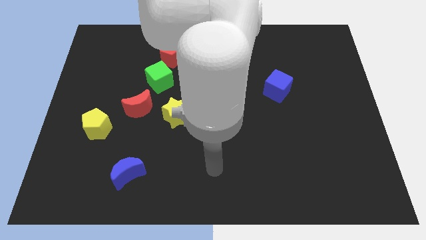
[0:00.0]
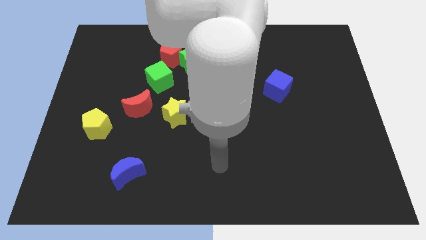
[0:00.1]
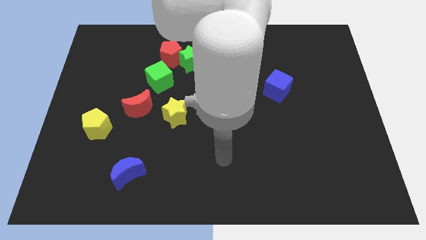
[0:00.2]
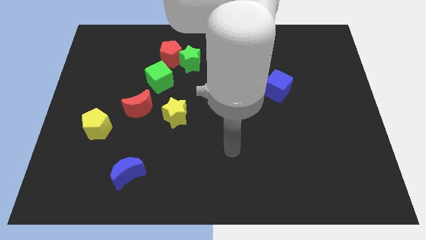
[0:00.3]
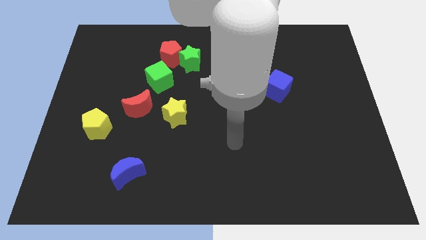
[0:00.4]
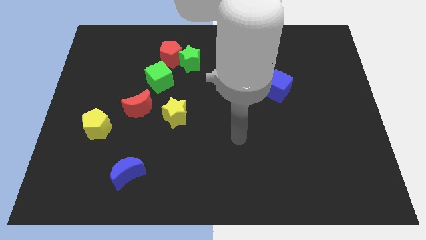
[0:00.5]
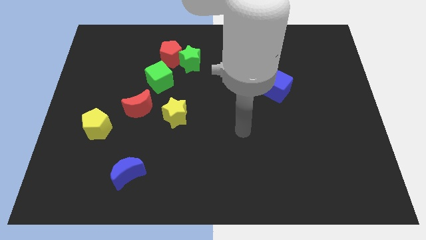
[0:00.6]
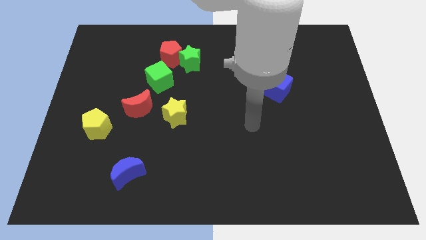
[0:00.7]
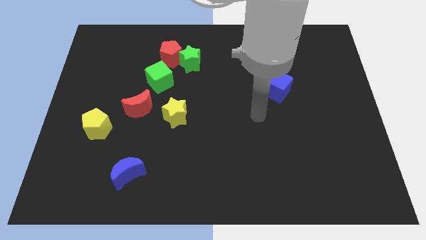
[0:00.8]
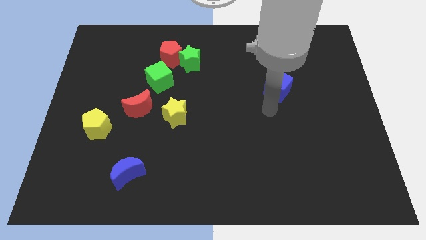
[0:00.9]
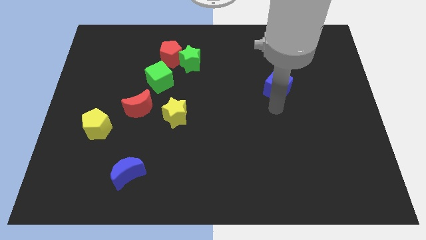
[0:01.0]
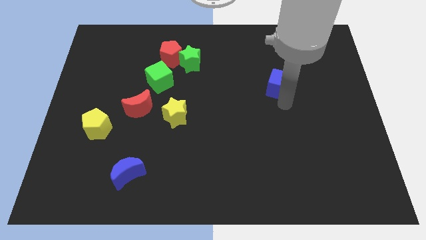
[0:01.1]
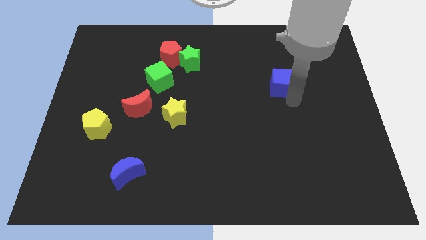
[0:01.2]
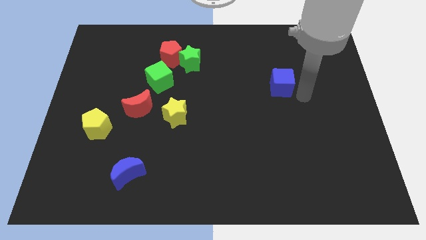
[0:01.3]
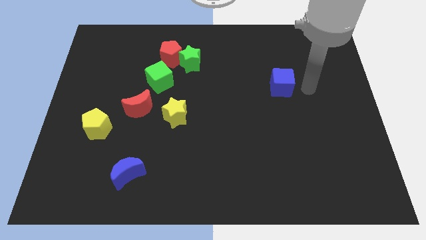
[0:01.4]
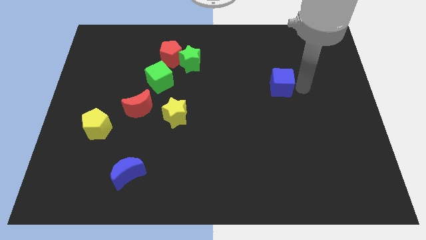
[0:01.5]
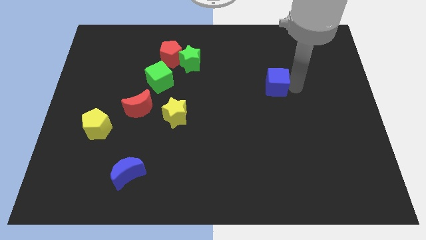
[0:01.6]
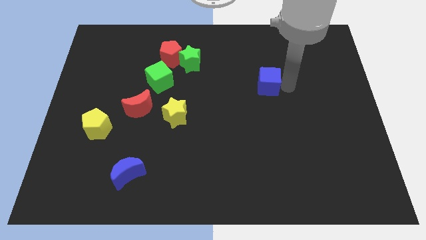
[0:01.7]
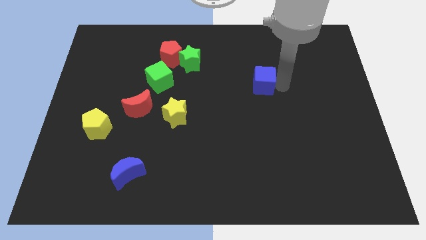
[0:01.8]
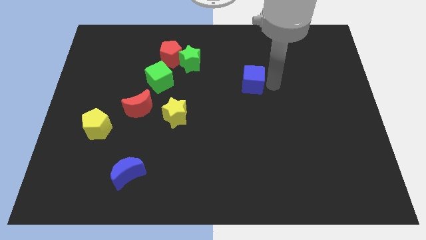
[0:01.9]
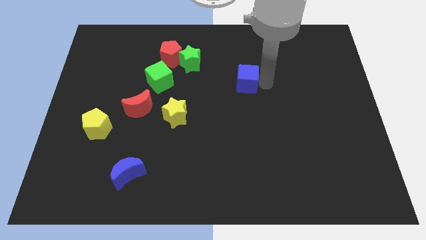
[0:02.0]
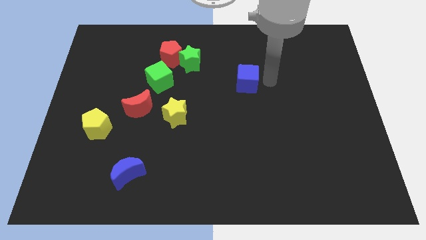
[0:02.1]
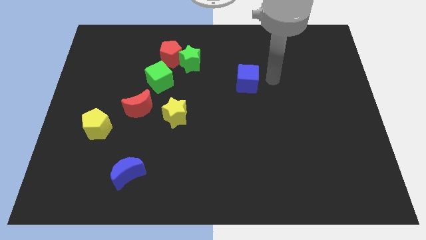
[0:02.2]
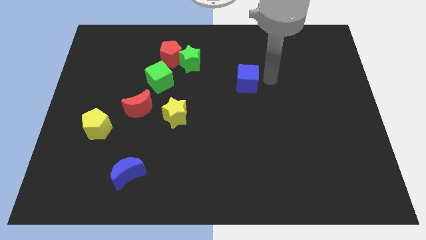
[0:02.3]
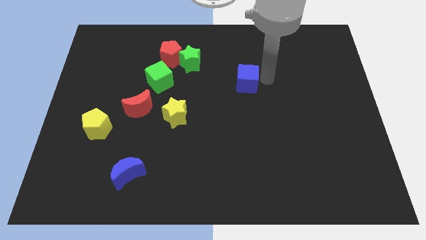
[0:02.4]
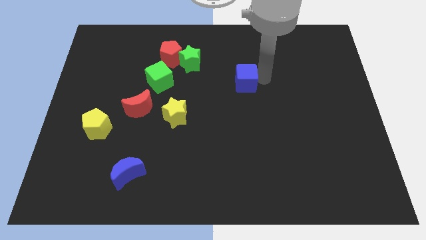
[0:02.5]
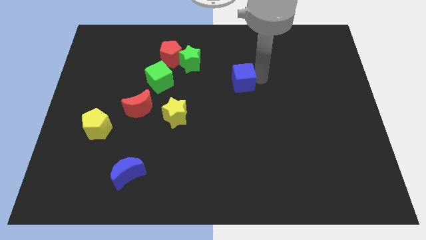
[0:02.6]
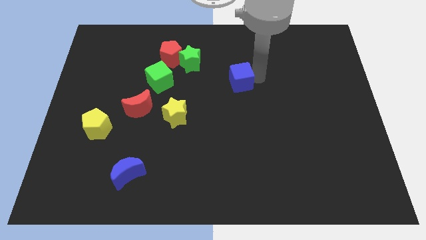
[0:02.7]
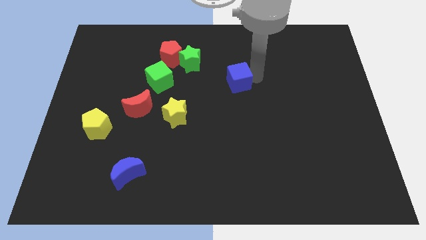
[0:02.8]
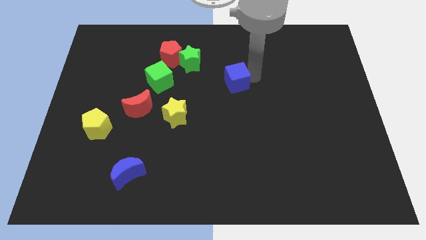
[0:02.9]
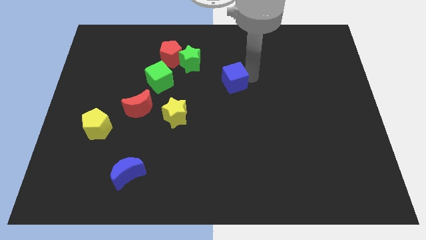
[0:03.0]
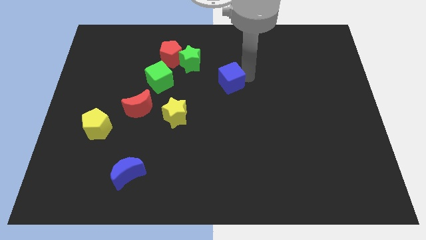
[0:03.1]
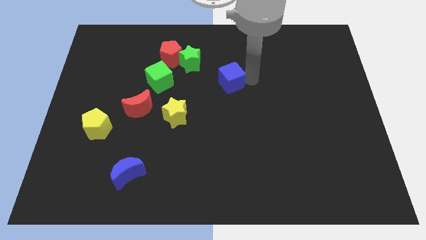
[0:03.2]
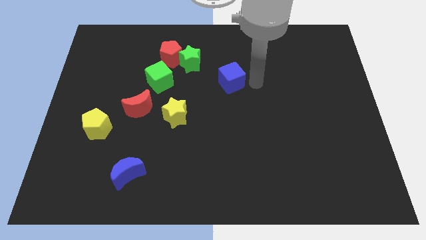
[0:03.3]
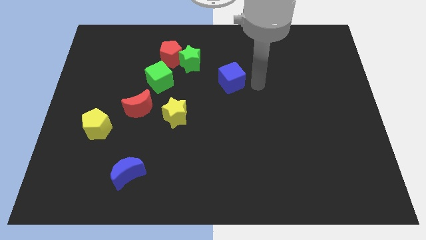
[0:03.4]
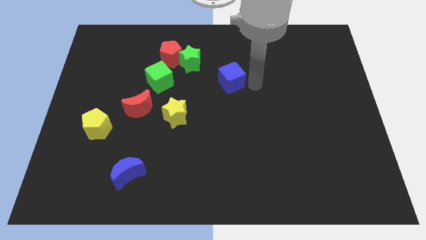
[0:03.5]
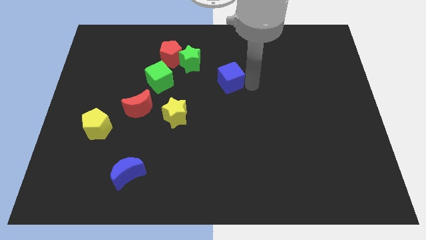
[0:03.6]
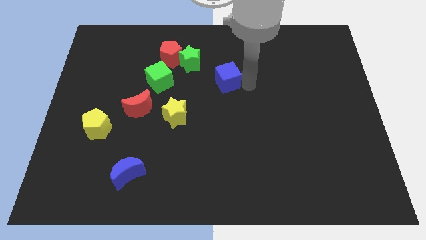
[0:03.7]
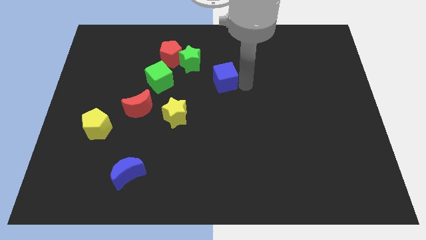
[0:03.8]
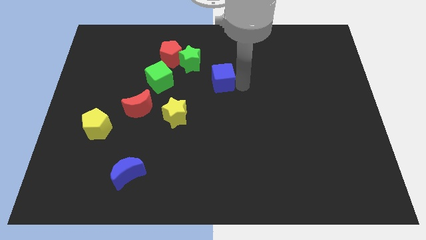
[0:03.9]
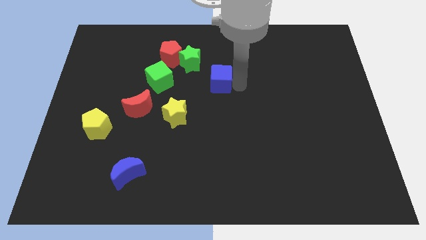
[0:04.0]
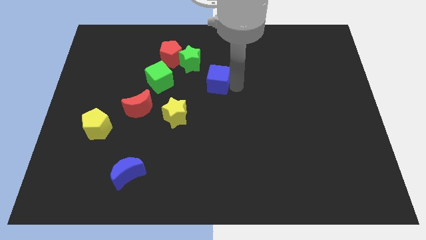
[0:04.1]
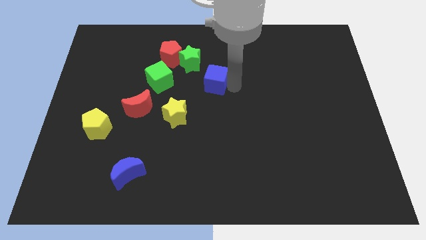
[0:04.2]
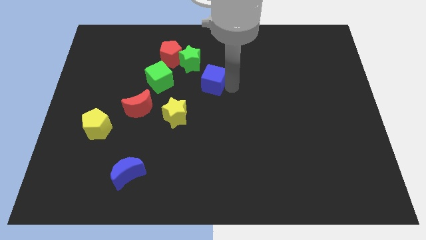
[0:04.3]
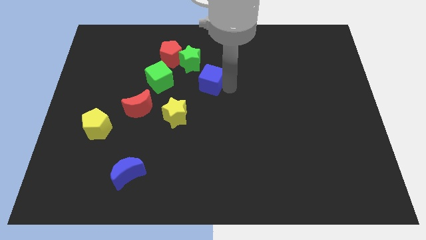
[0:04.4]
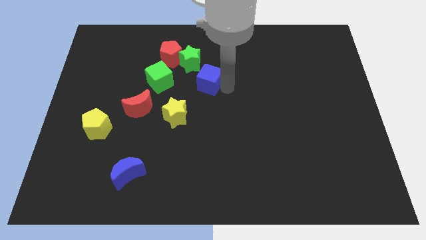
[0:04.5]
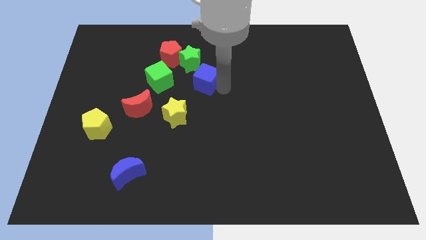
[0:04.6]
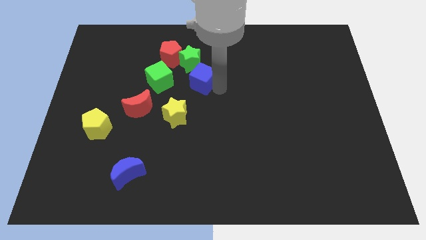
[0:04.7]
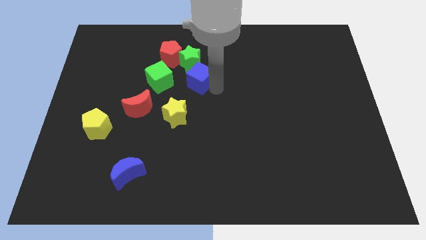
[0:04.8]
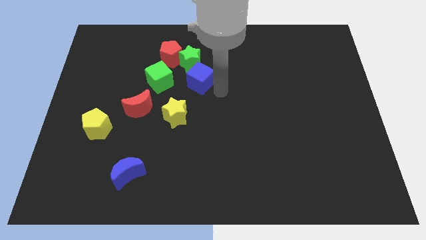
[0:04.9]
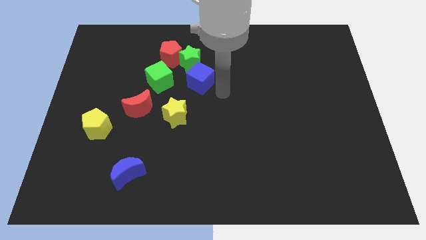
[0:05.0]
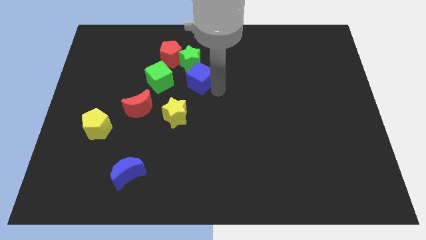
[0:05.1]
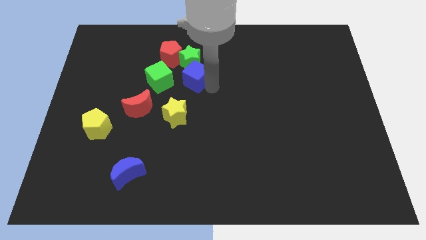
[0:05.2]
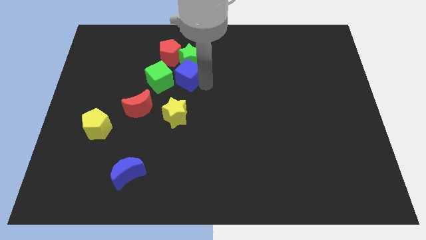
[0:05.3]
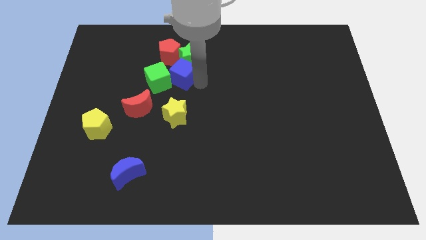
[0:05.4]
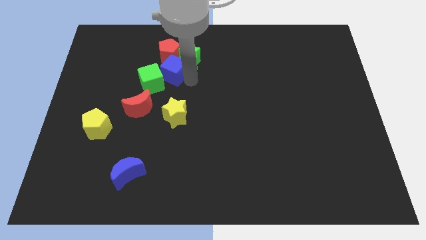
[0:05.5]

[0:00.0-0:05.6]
slide the blue cube to the left of the green star
